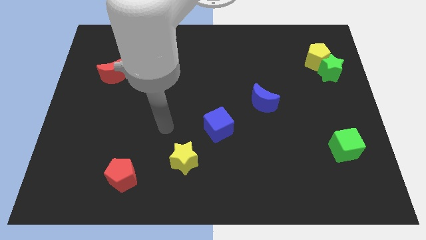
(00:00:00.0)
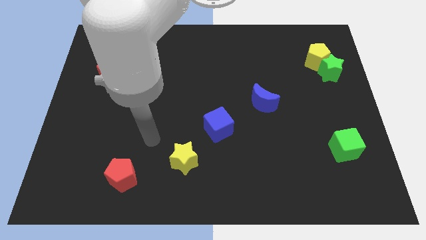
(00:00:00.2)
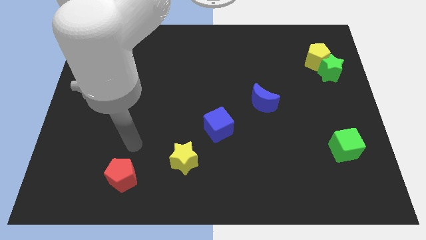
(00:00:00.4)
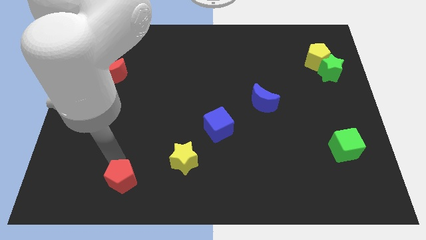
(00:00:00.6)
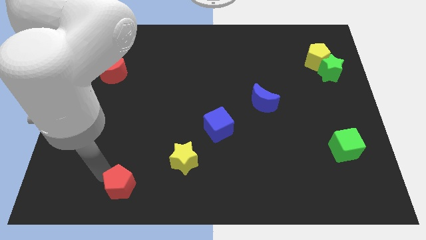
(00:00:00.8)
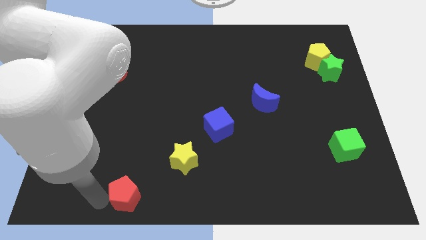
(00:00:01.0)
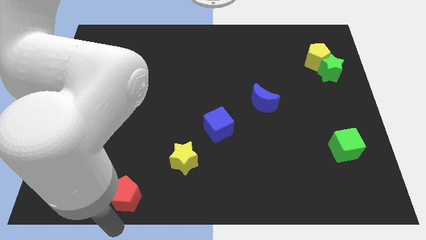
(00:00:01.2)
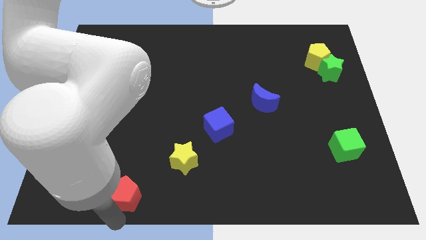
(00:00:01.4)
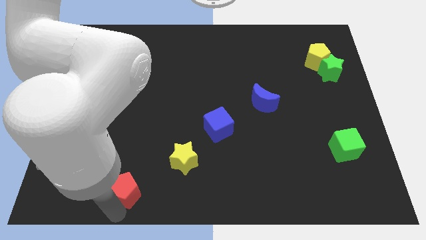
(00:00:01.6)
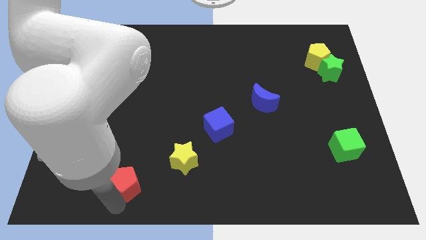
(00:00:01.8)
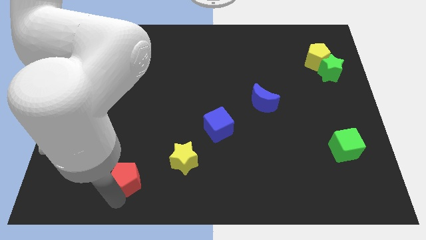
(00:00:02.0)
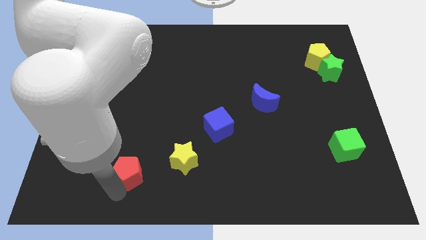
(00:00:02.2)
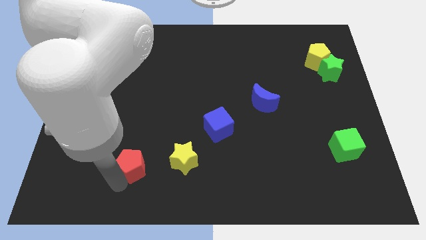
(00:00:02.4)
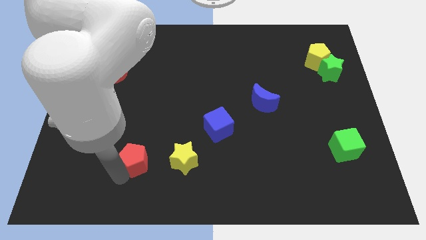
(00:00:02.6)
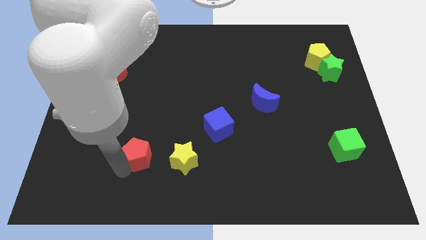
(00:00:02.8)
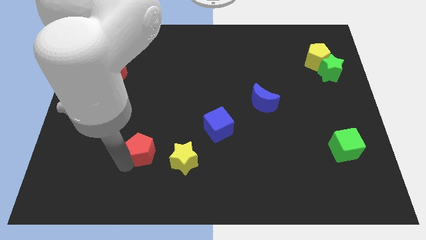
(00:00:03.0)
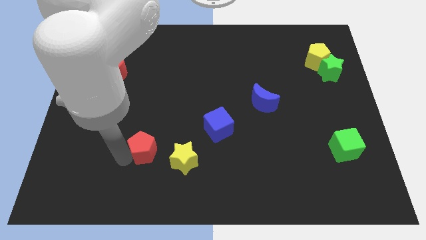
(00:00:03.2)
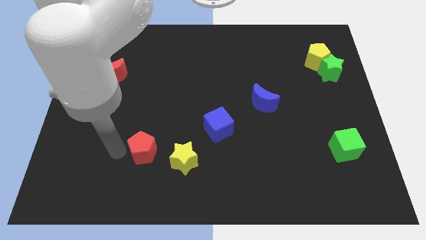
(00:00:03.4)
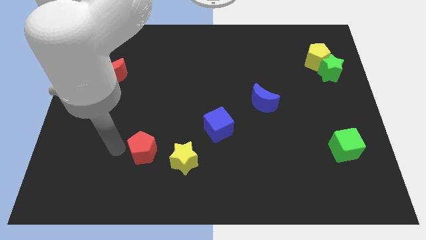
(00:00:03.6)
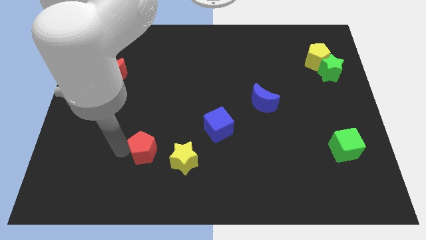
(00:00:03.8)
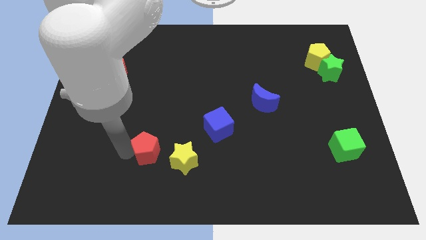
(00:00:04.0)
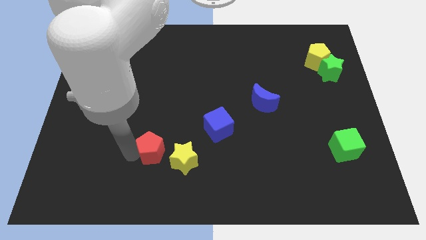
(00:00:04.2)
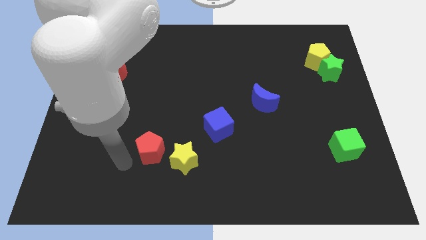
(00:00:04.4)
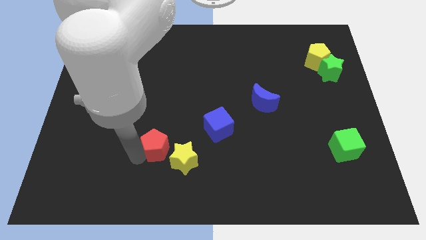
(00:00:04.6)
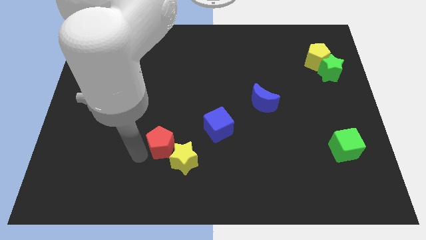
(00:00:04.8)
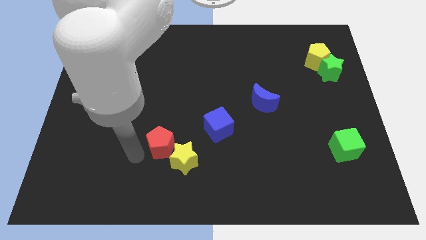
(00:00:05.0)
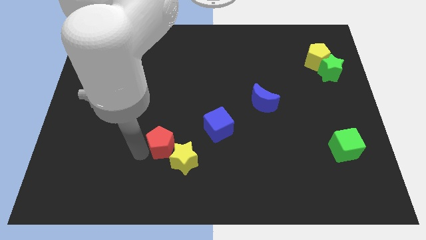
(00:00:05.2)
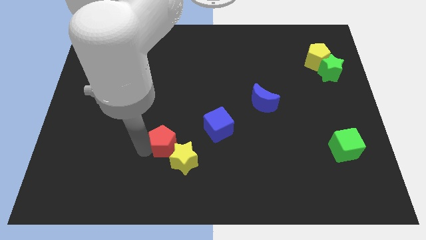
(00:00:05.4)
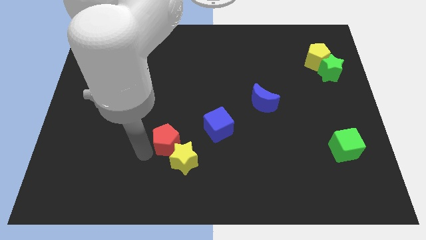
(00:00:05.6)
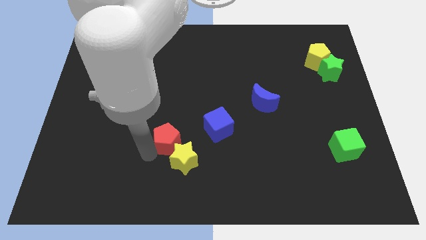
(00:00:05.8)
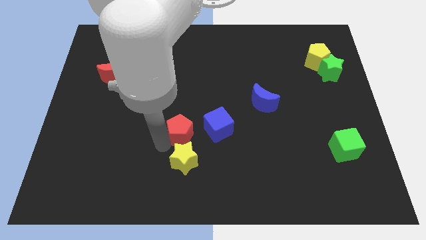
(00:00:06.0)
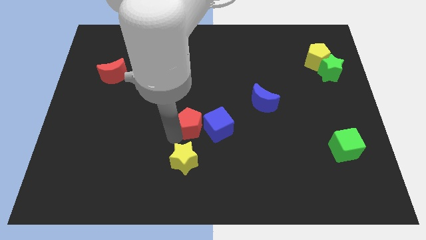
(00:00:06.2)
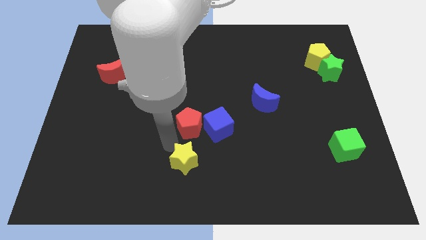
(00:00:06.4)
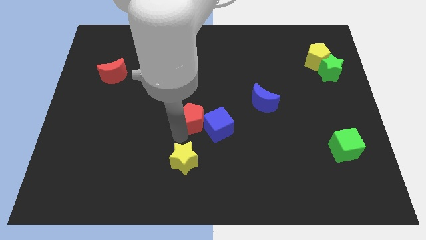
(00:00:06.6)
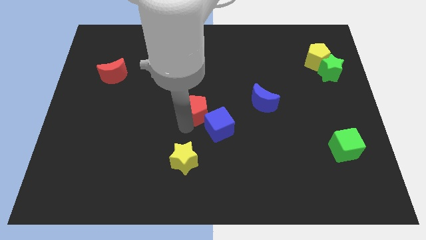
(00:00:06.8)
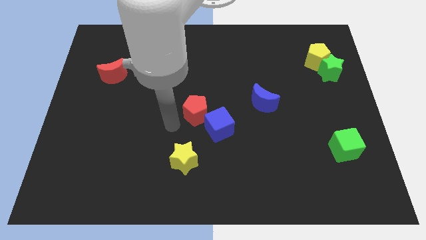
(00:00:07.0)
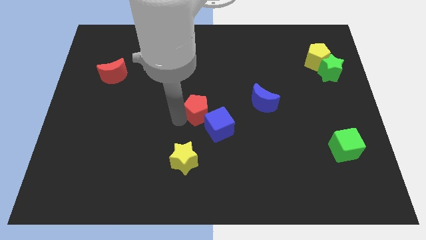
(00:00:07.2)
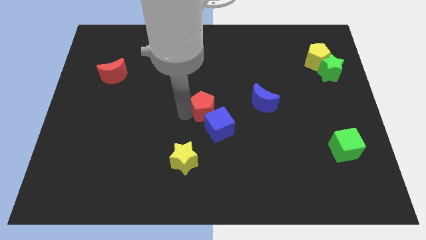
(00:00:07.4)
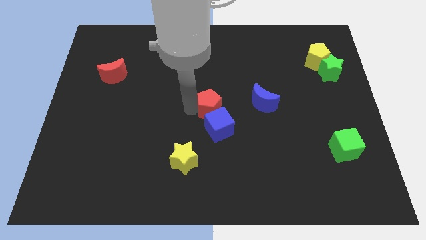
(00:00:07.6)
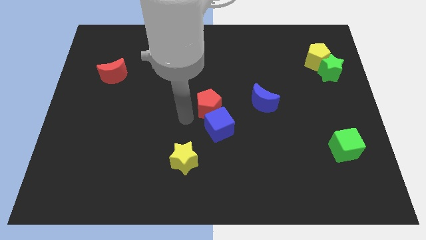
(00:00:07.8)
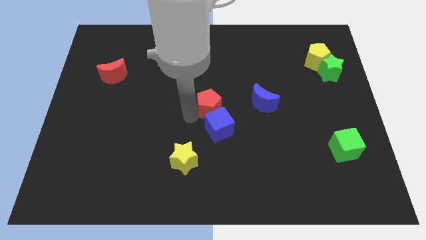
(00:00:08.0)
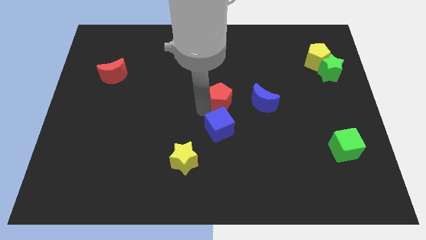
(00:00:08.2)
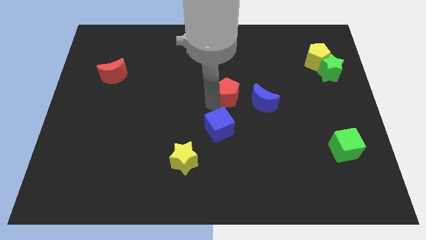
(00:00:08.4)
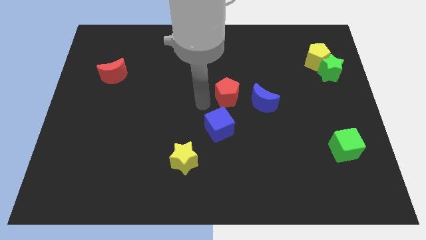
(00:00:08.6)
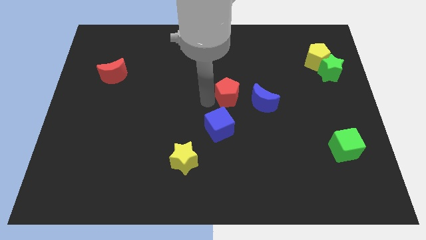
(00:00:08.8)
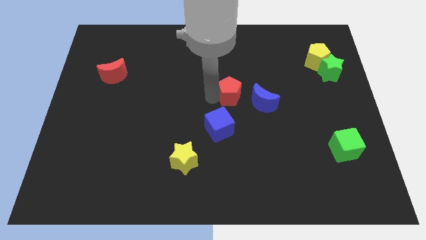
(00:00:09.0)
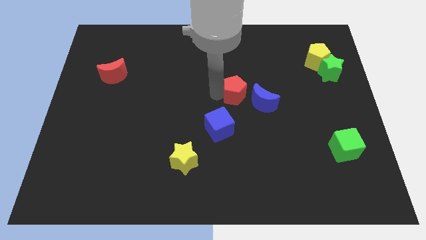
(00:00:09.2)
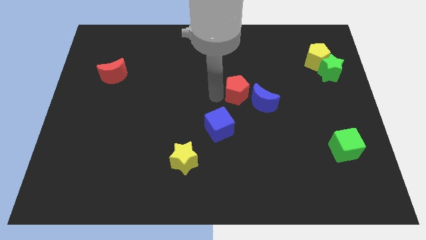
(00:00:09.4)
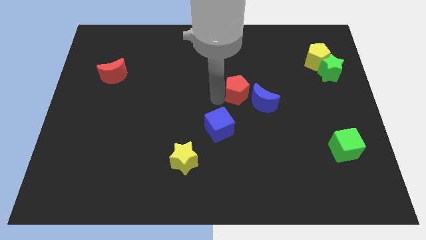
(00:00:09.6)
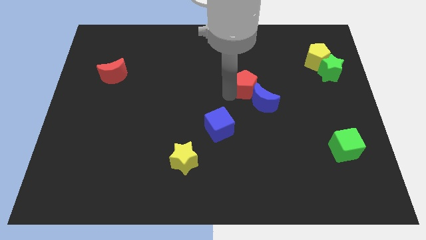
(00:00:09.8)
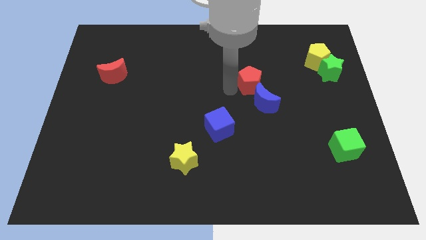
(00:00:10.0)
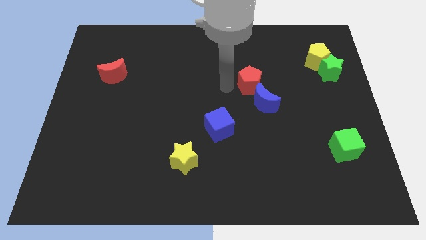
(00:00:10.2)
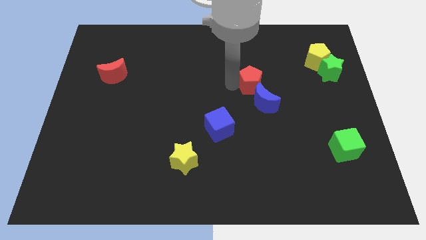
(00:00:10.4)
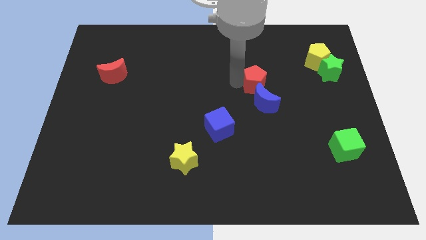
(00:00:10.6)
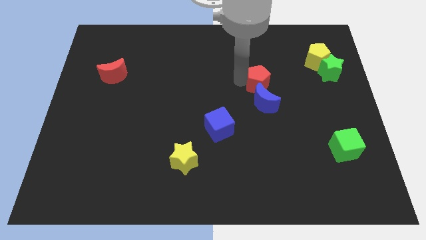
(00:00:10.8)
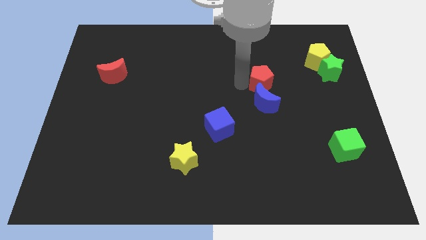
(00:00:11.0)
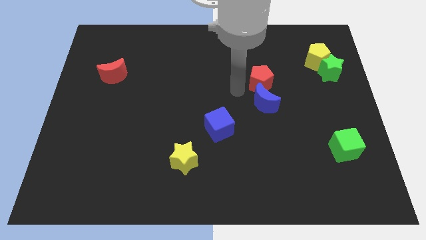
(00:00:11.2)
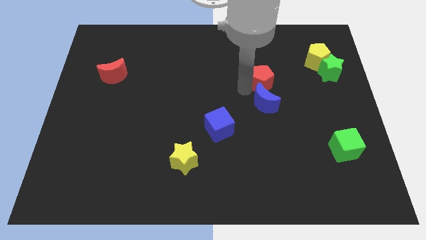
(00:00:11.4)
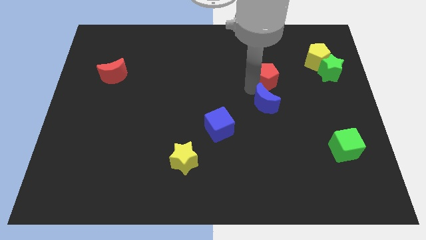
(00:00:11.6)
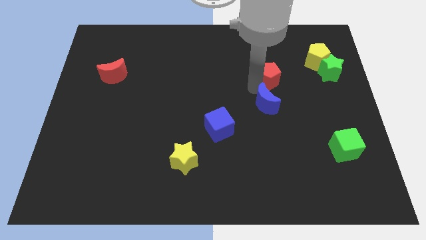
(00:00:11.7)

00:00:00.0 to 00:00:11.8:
put the red pentagon to the left side of the green star

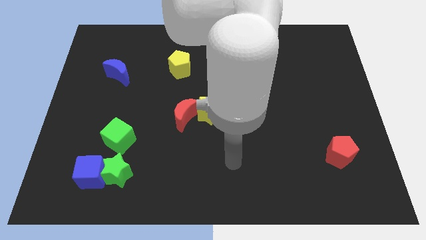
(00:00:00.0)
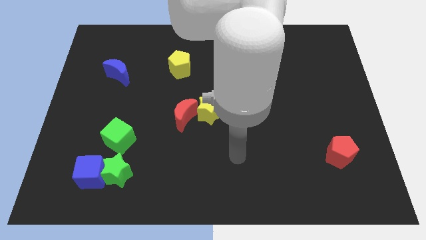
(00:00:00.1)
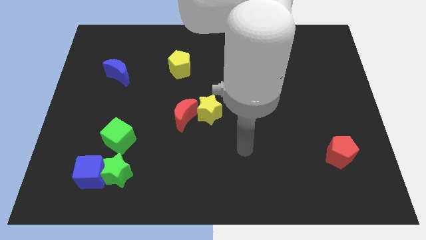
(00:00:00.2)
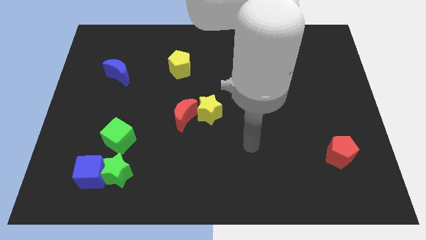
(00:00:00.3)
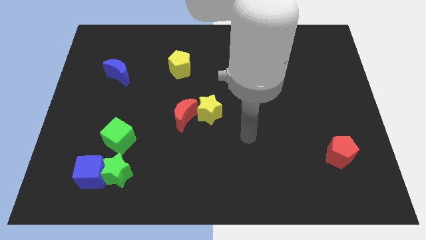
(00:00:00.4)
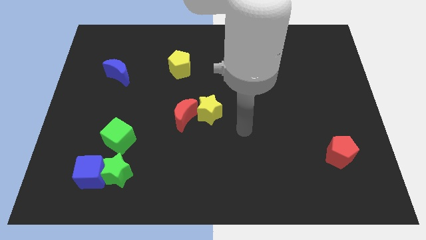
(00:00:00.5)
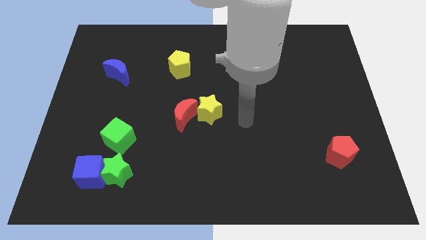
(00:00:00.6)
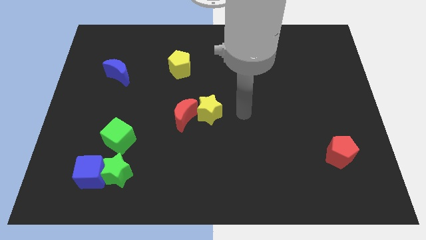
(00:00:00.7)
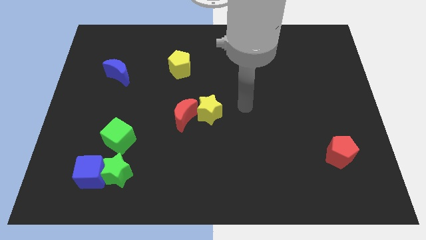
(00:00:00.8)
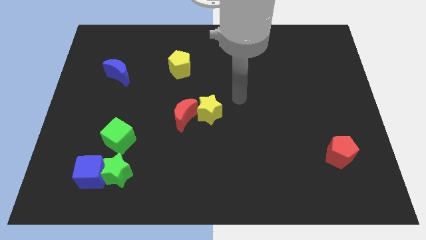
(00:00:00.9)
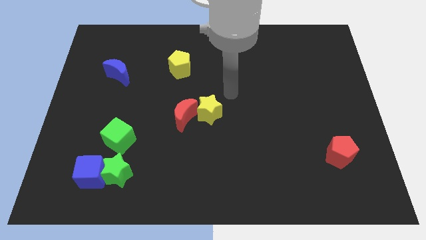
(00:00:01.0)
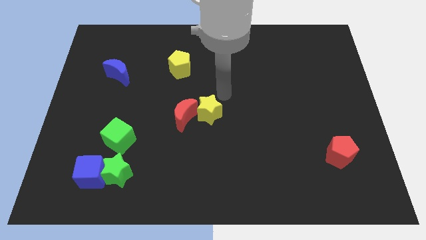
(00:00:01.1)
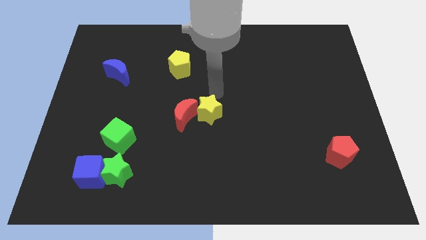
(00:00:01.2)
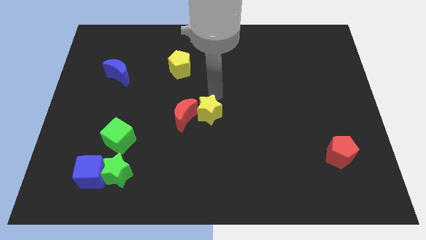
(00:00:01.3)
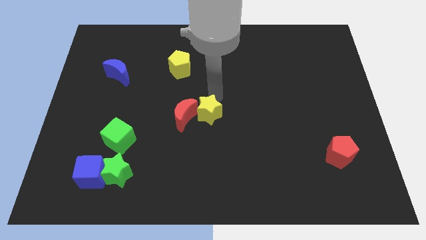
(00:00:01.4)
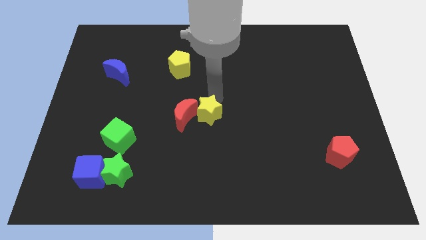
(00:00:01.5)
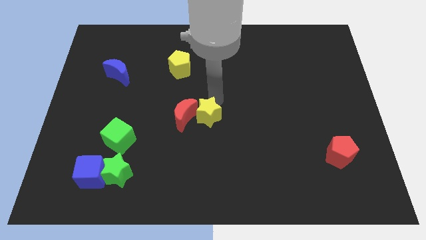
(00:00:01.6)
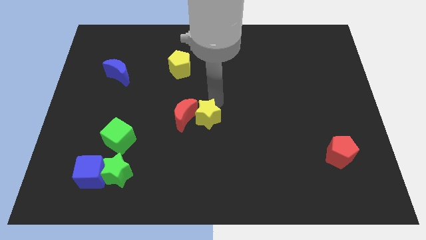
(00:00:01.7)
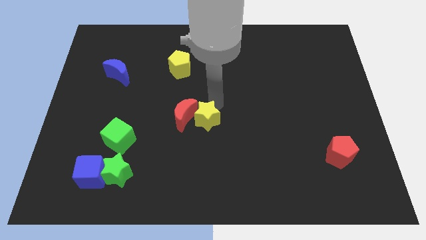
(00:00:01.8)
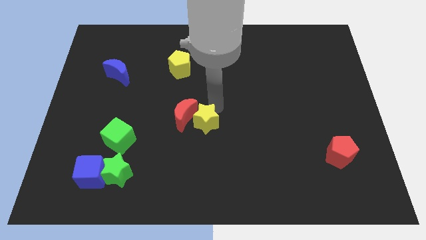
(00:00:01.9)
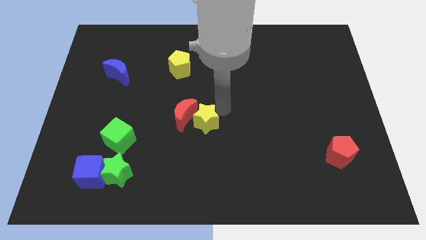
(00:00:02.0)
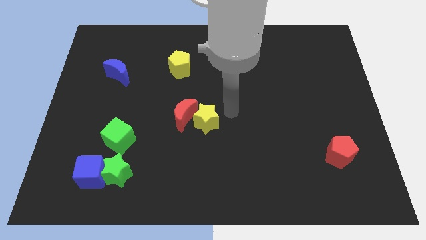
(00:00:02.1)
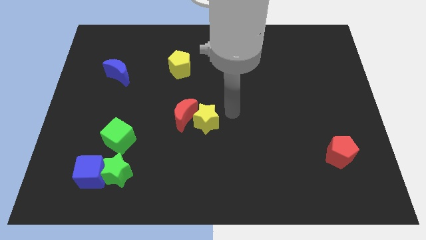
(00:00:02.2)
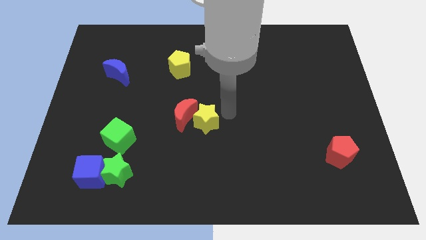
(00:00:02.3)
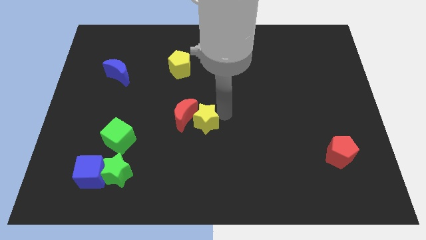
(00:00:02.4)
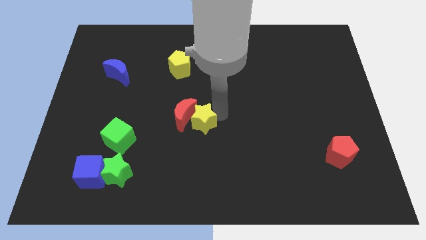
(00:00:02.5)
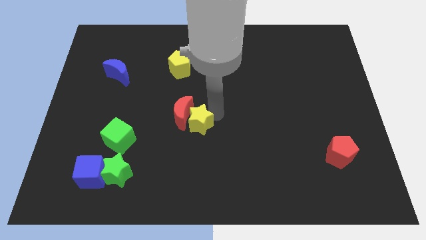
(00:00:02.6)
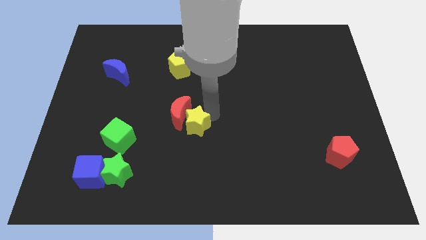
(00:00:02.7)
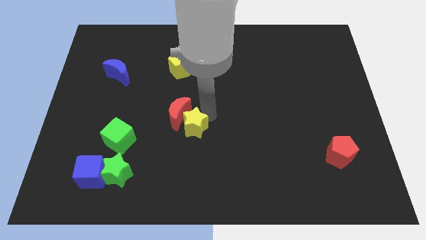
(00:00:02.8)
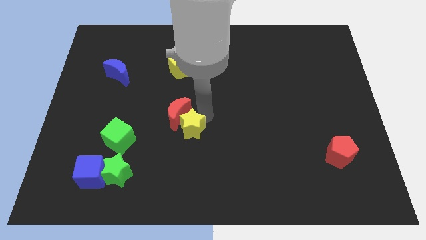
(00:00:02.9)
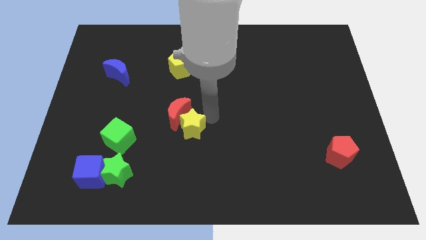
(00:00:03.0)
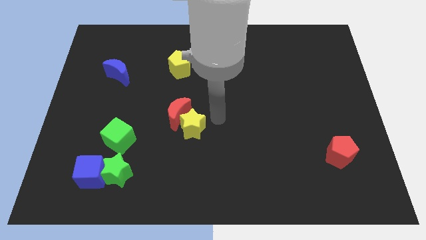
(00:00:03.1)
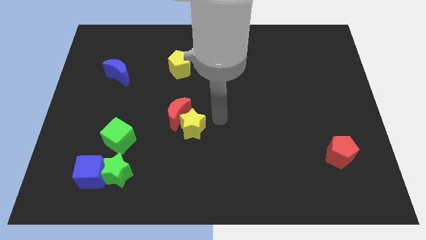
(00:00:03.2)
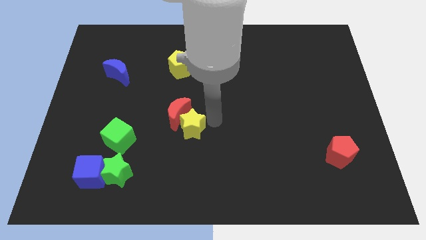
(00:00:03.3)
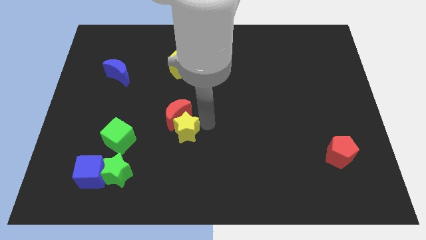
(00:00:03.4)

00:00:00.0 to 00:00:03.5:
move the yellow star to the right of the green cube
